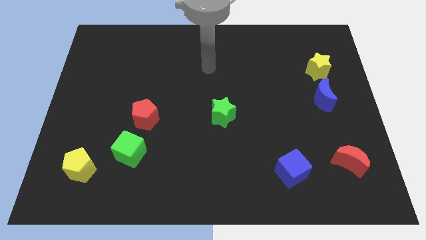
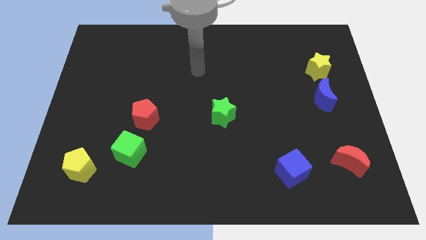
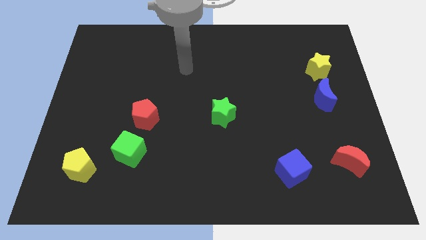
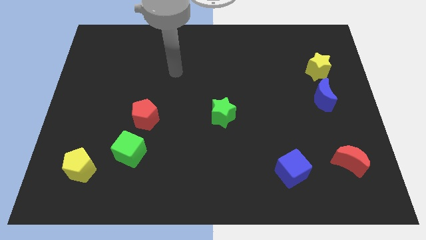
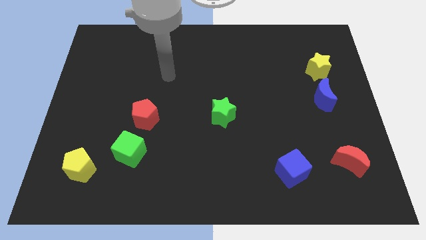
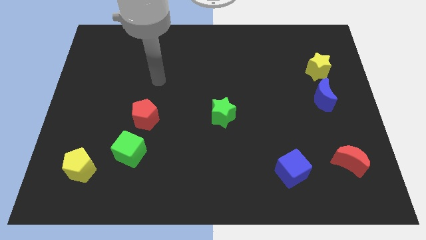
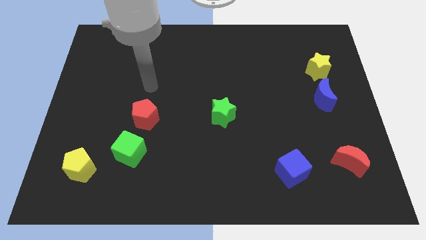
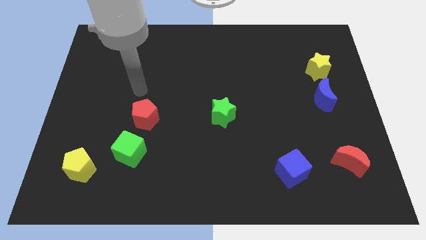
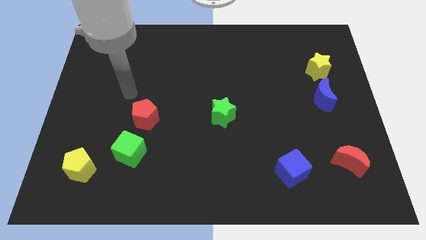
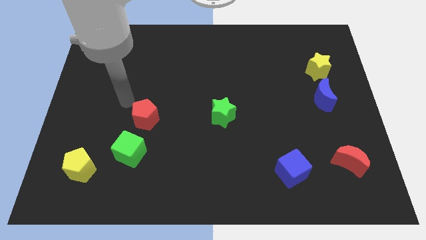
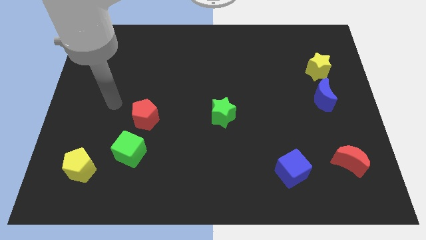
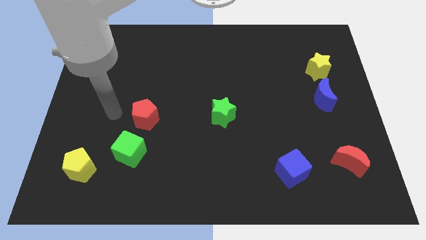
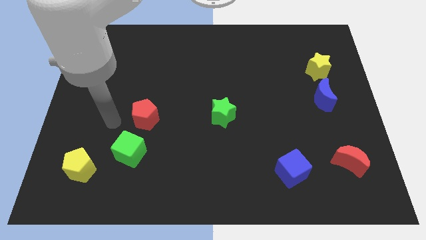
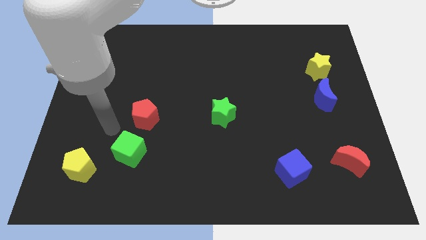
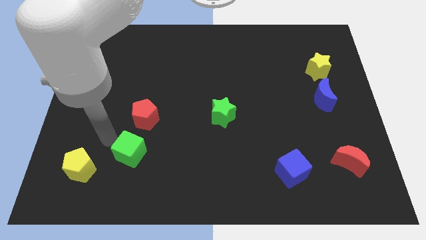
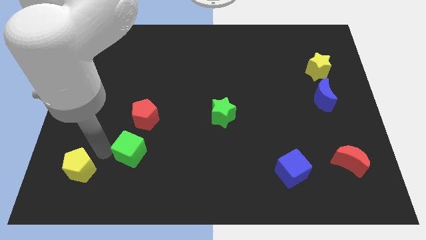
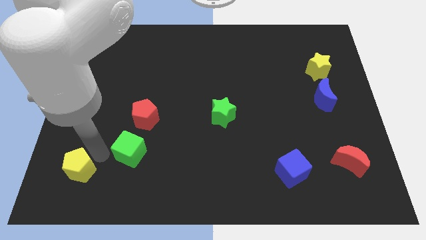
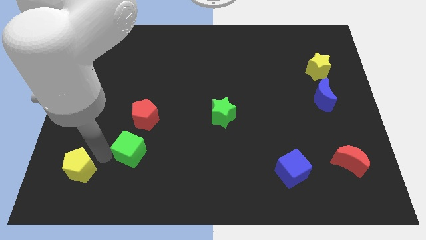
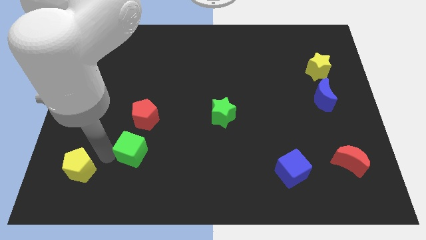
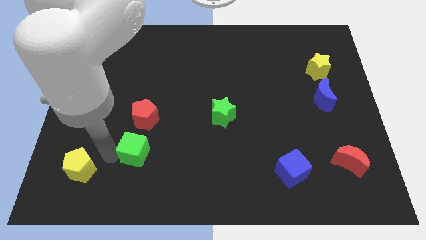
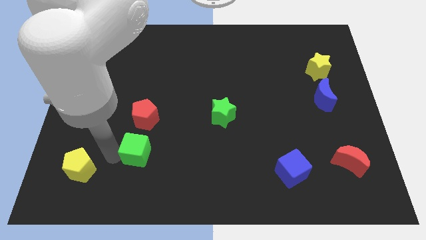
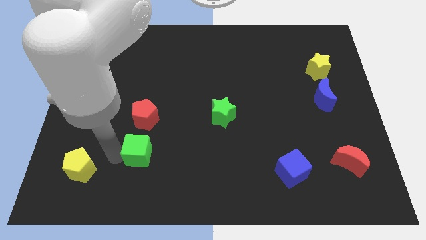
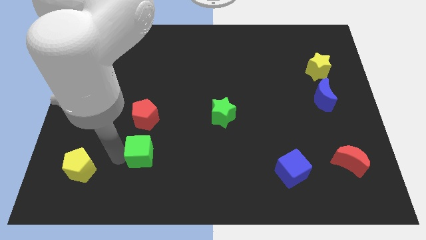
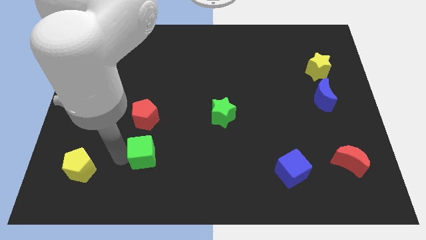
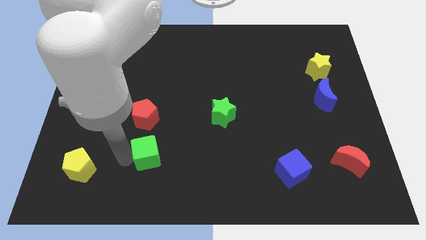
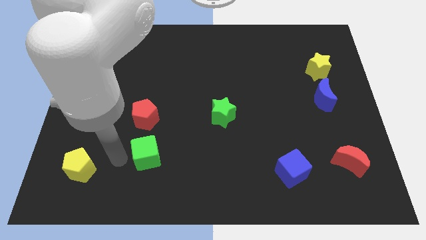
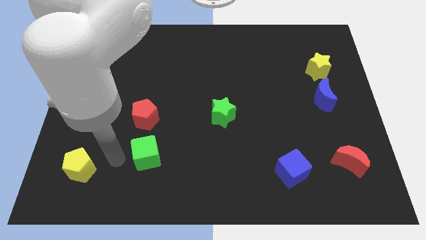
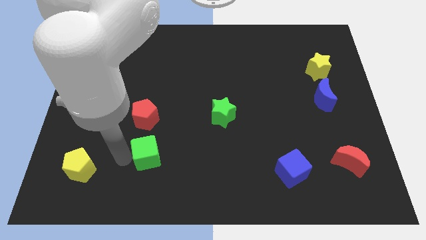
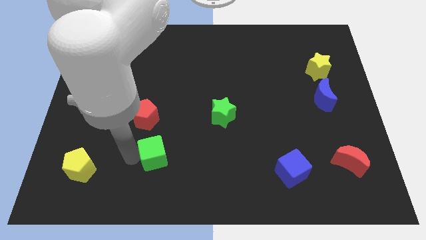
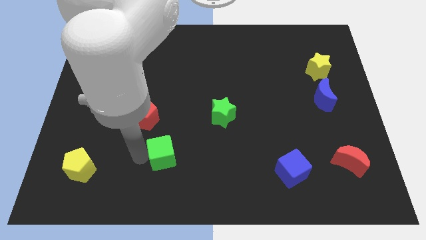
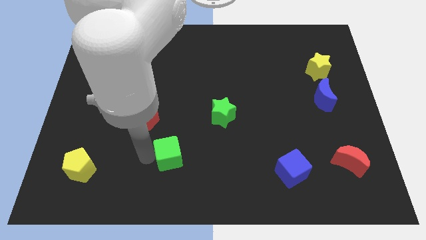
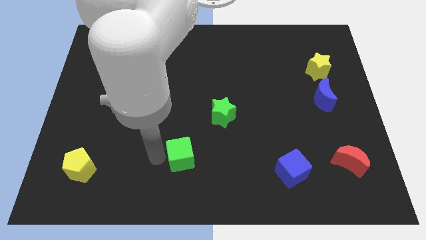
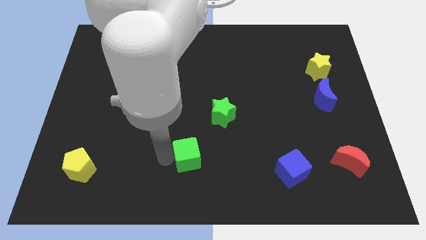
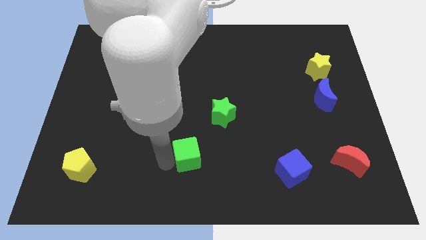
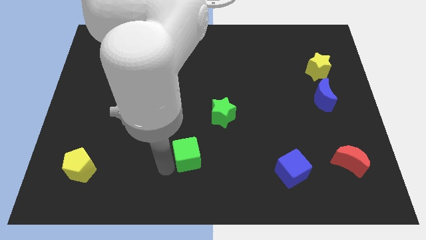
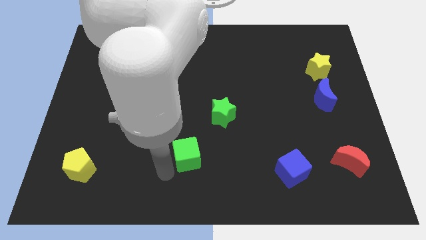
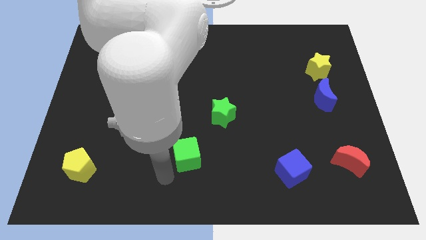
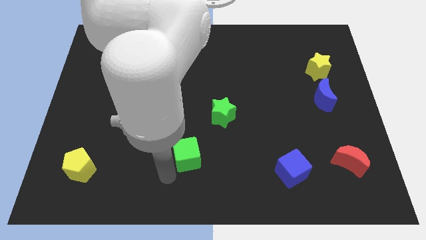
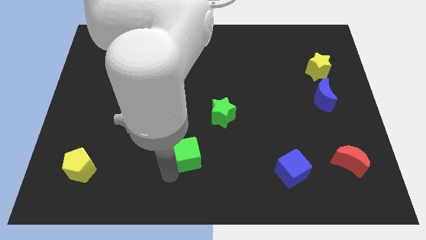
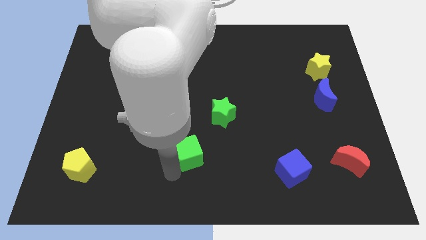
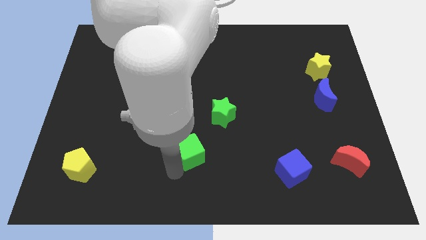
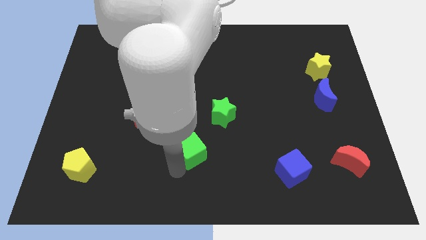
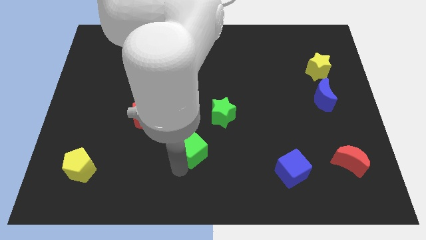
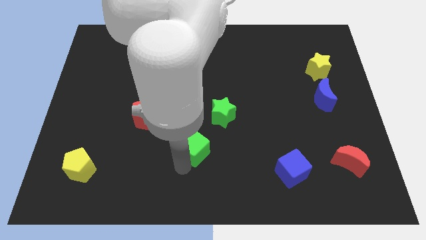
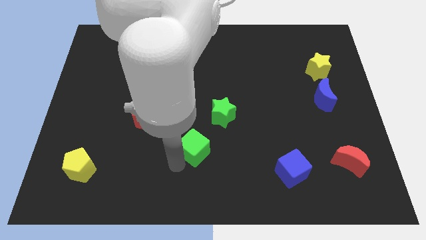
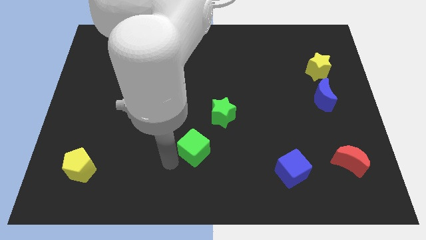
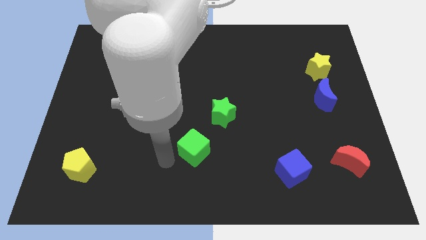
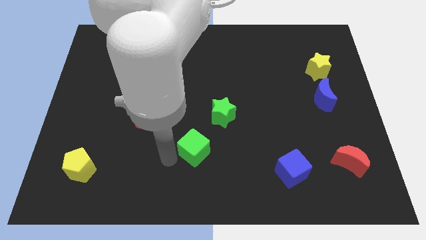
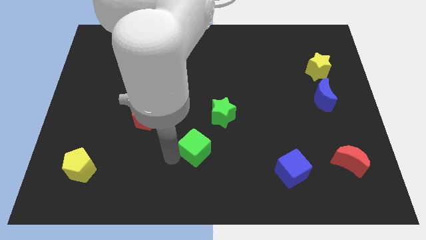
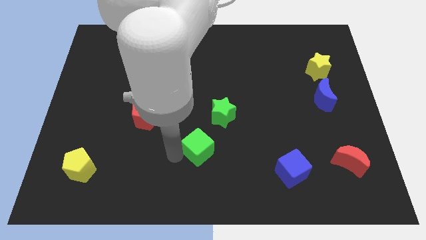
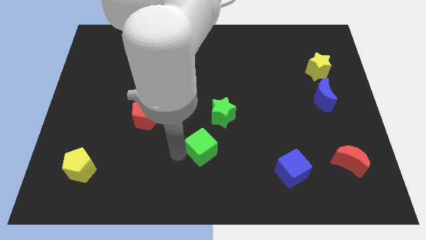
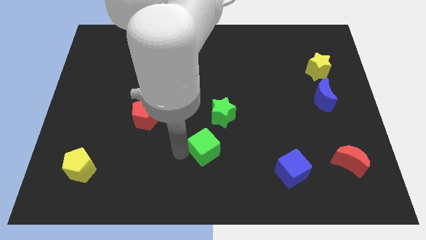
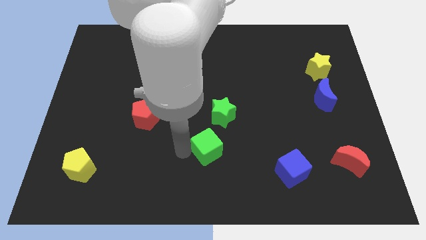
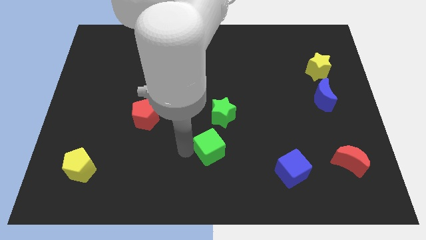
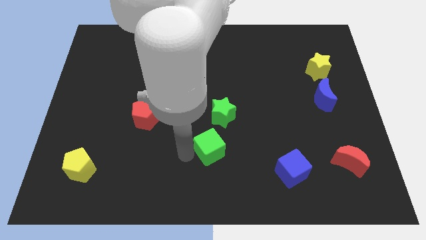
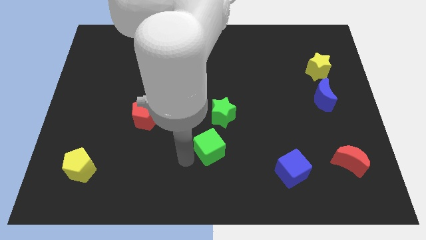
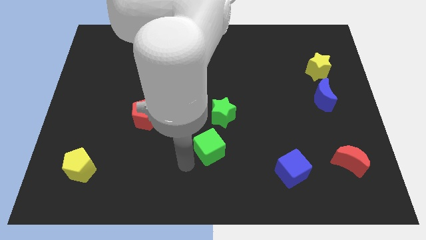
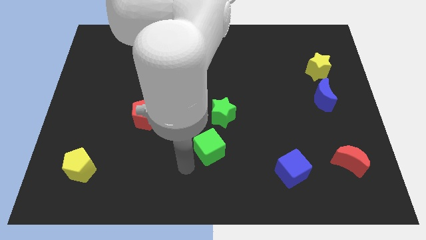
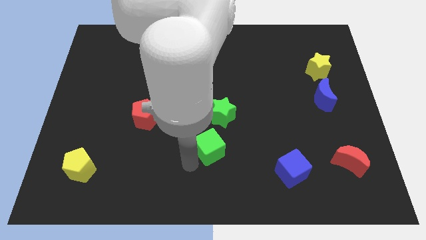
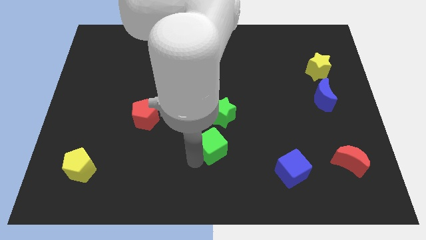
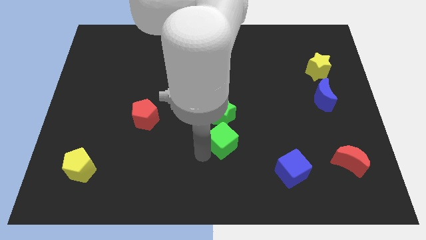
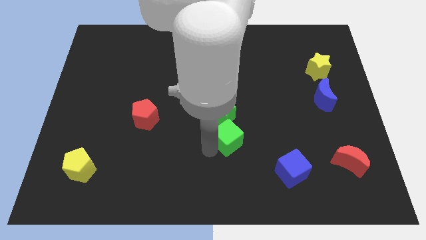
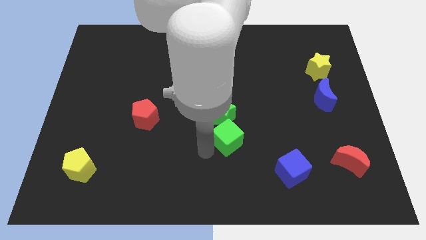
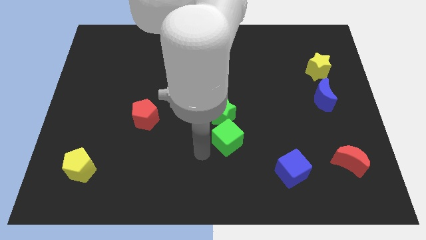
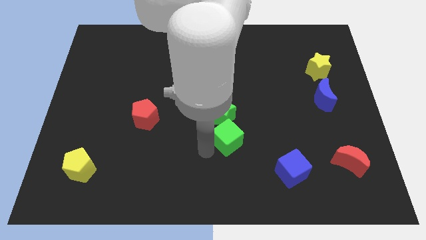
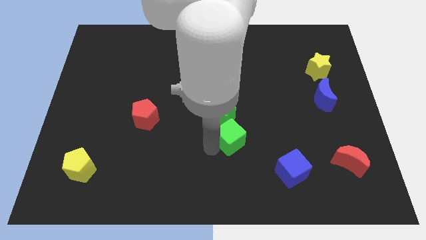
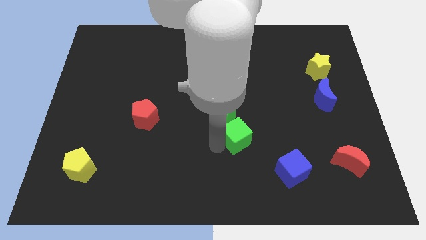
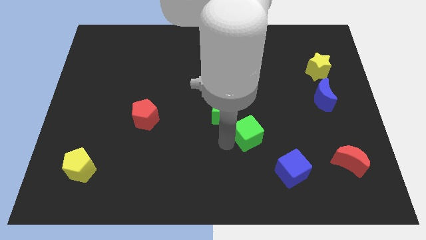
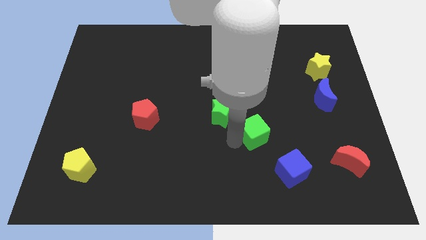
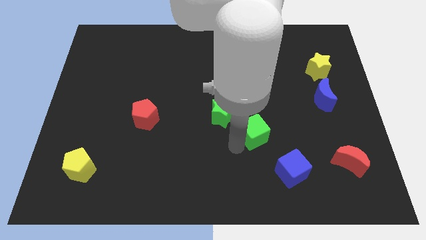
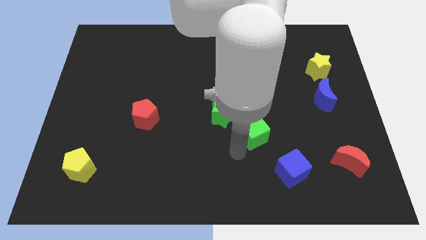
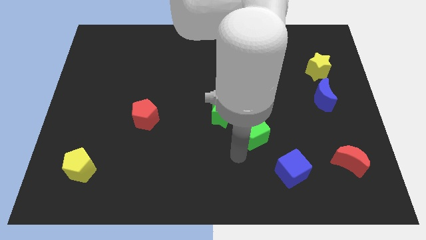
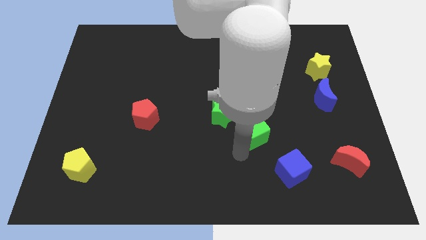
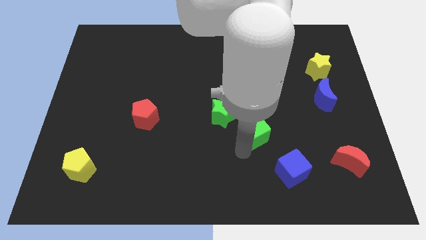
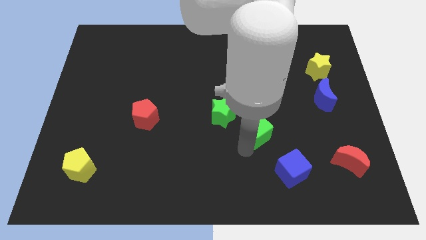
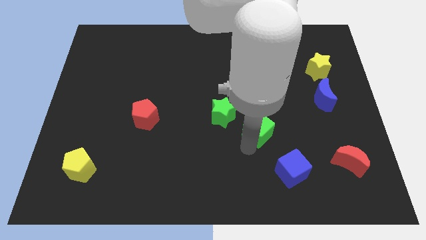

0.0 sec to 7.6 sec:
push the green cube right of the green star
